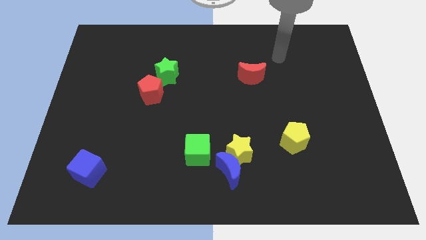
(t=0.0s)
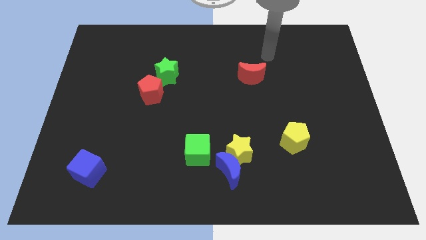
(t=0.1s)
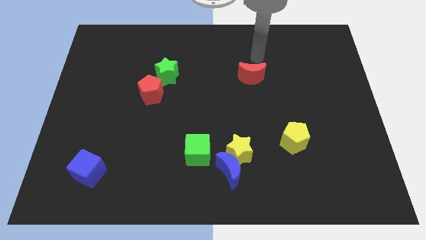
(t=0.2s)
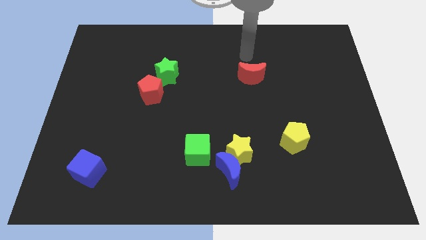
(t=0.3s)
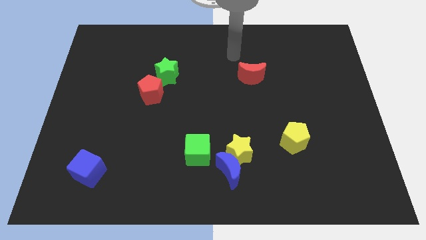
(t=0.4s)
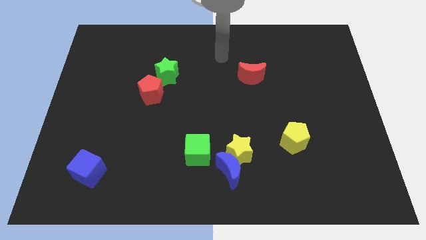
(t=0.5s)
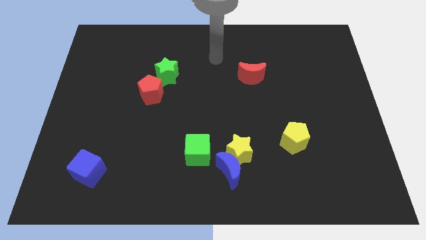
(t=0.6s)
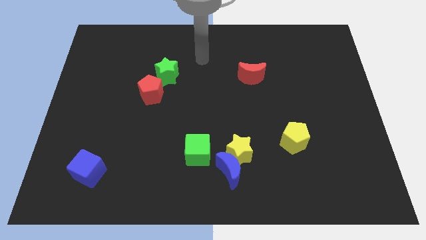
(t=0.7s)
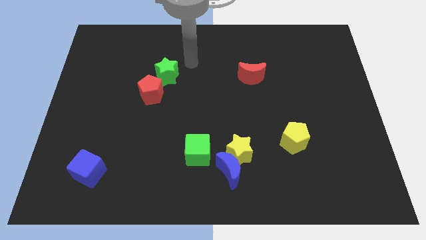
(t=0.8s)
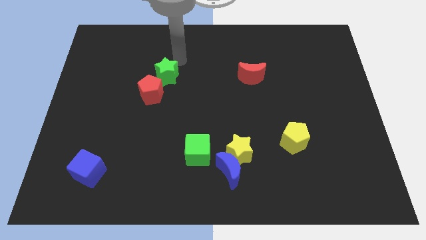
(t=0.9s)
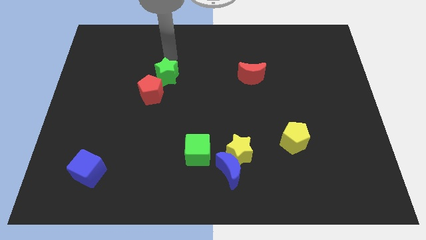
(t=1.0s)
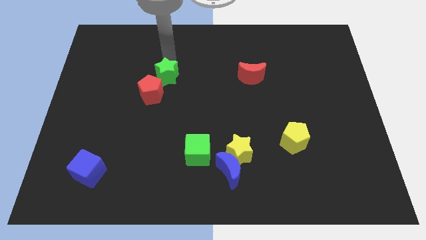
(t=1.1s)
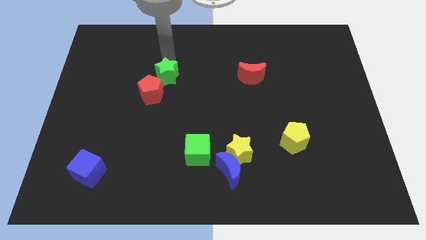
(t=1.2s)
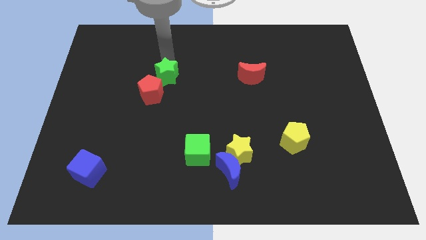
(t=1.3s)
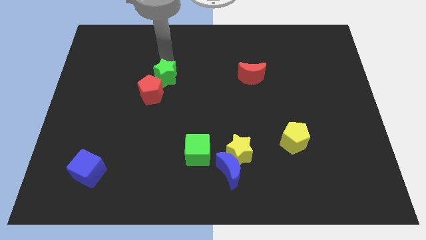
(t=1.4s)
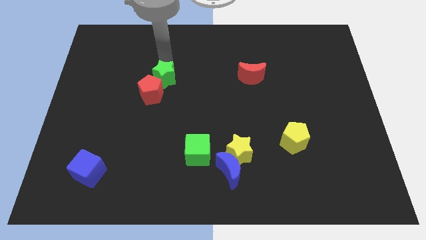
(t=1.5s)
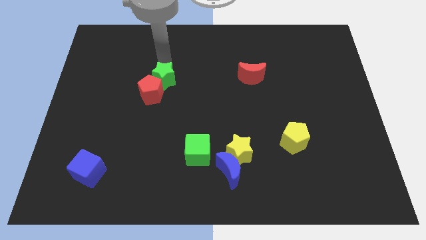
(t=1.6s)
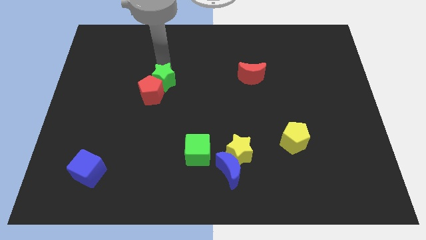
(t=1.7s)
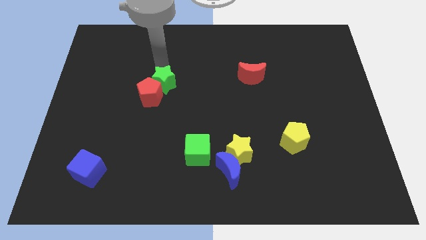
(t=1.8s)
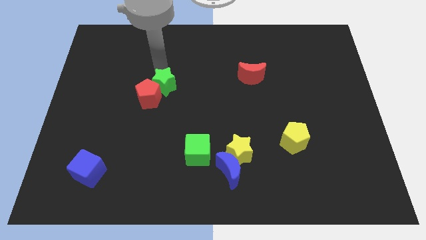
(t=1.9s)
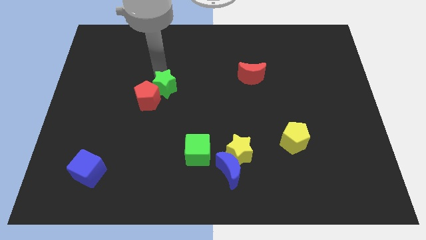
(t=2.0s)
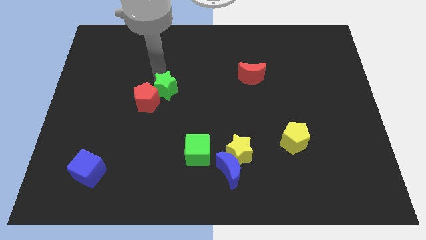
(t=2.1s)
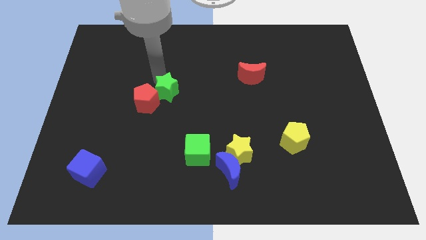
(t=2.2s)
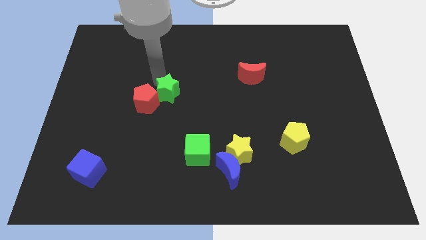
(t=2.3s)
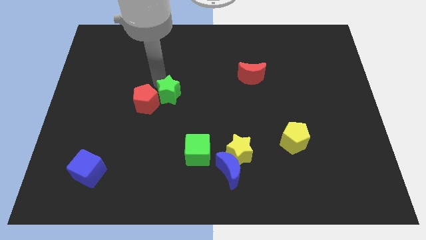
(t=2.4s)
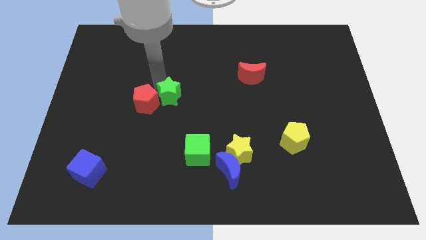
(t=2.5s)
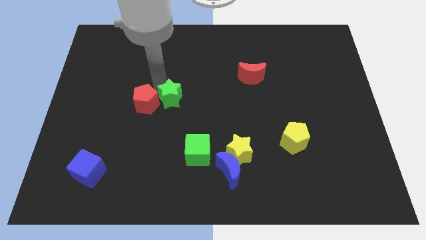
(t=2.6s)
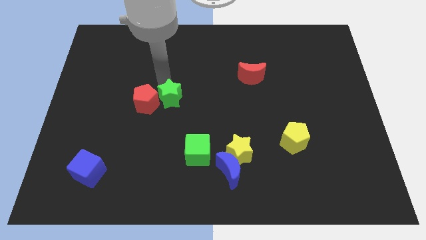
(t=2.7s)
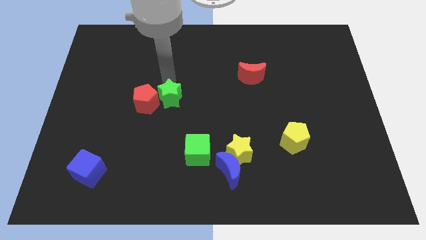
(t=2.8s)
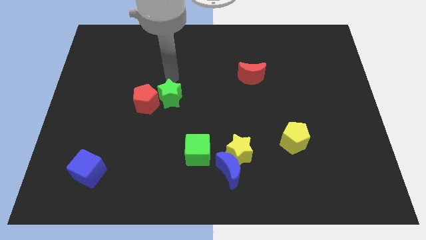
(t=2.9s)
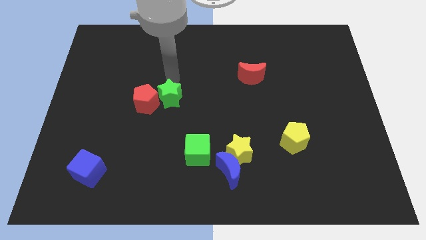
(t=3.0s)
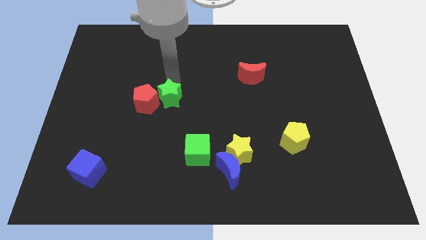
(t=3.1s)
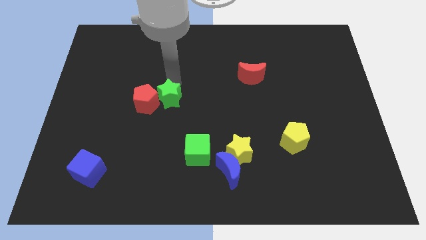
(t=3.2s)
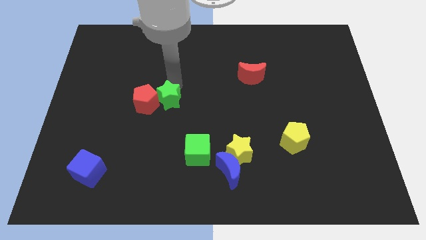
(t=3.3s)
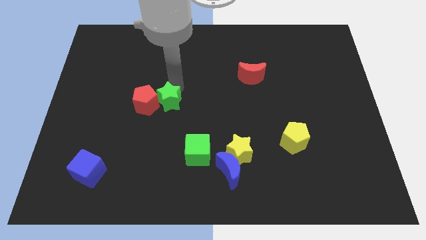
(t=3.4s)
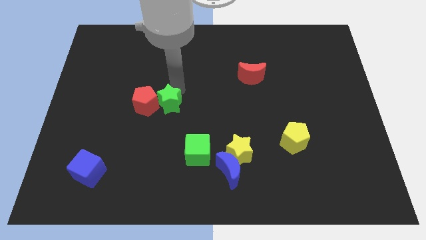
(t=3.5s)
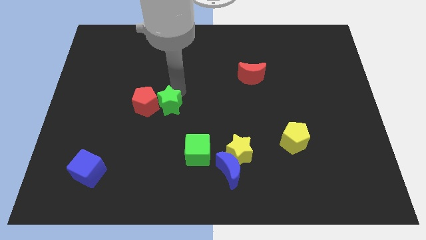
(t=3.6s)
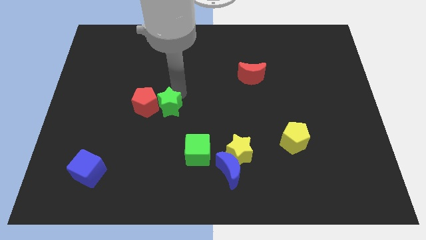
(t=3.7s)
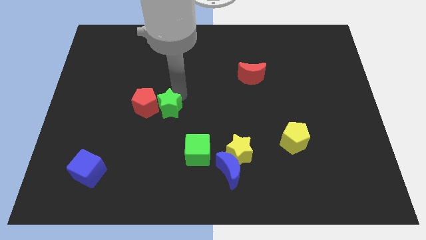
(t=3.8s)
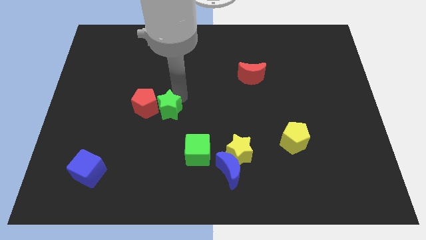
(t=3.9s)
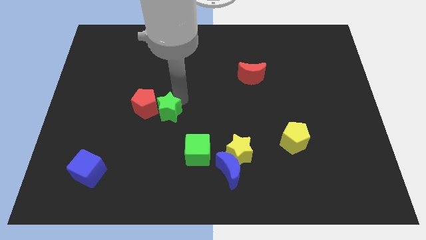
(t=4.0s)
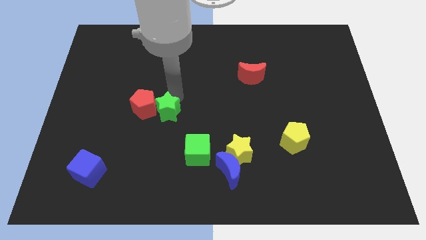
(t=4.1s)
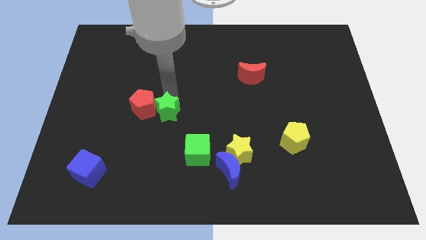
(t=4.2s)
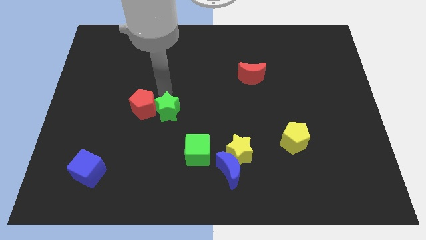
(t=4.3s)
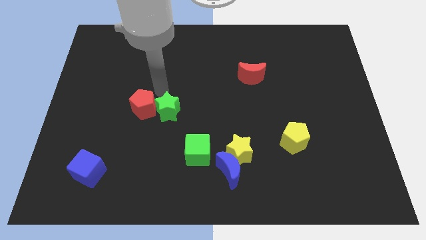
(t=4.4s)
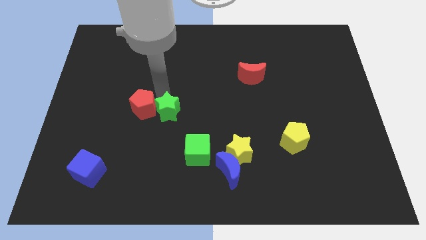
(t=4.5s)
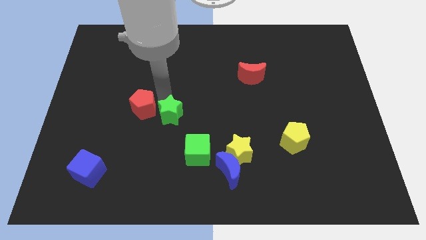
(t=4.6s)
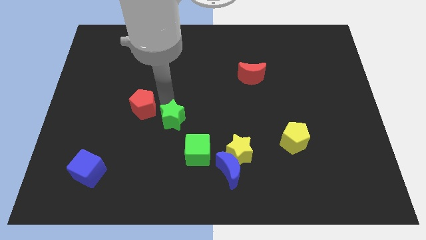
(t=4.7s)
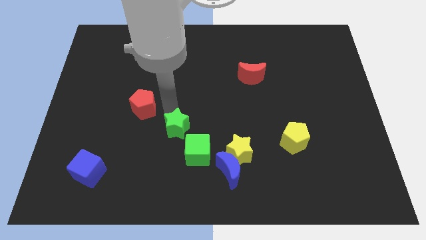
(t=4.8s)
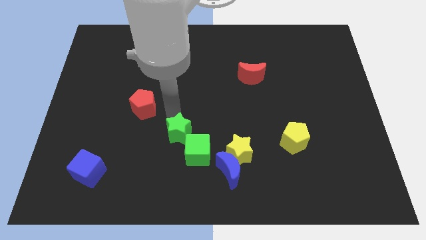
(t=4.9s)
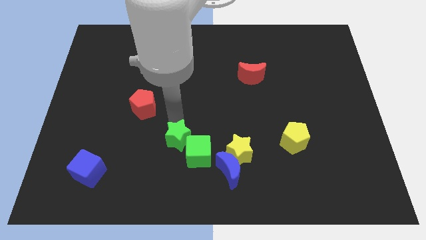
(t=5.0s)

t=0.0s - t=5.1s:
move the green star left of the yellow star
